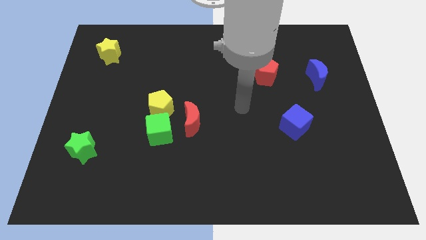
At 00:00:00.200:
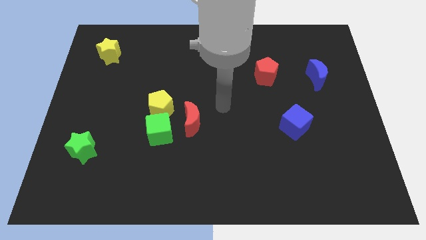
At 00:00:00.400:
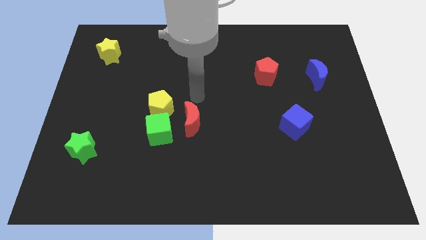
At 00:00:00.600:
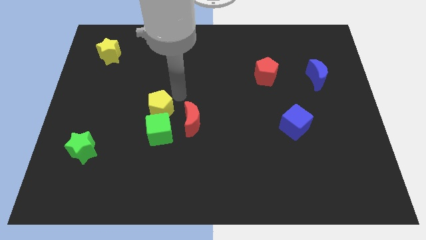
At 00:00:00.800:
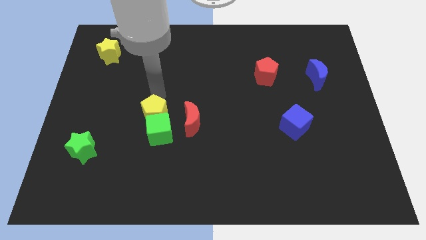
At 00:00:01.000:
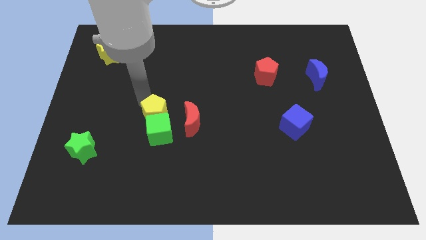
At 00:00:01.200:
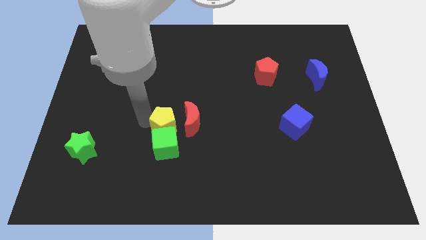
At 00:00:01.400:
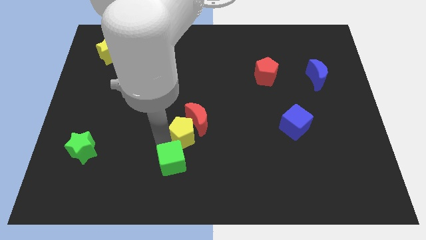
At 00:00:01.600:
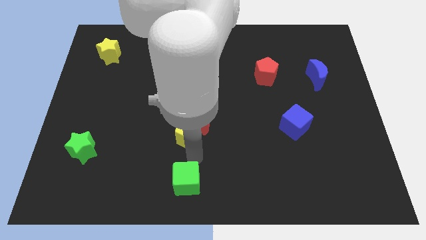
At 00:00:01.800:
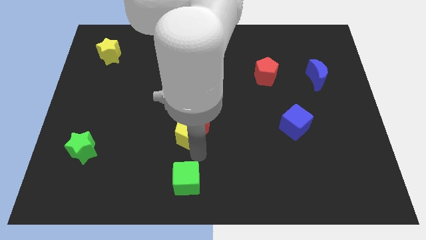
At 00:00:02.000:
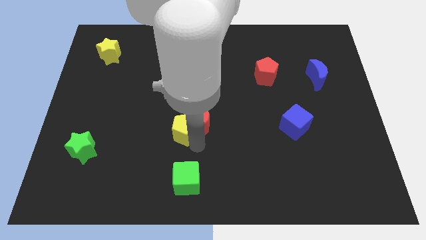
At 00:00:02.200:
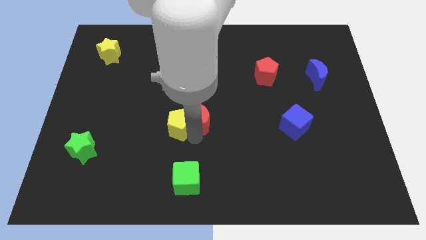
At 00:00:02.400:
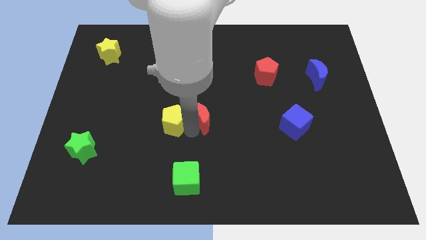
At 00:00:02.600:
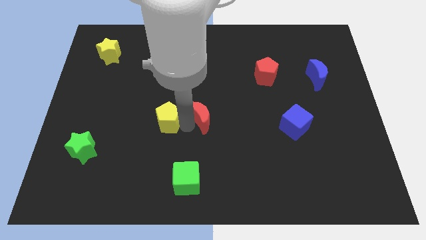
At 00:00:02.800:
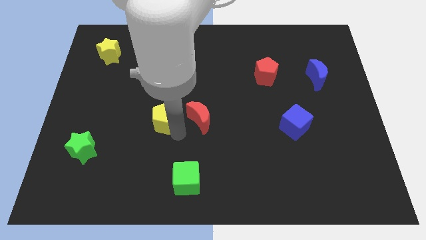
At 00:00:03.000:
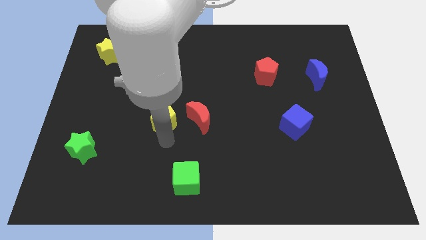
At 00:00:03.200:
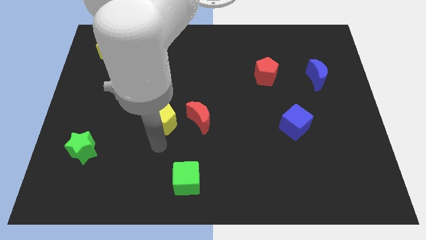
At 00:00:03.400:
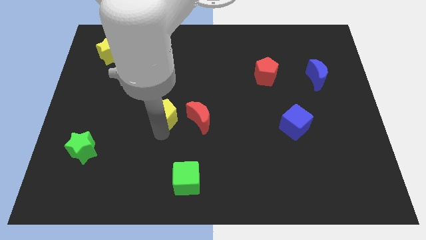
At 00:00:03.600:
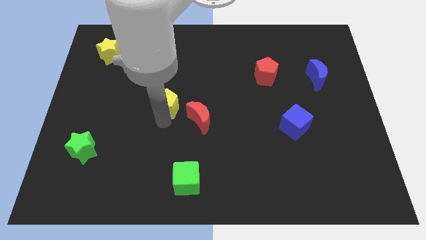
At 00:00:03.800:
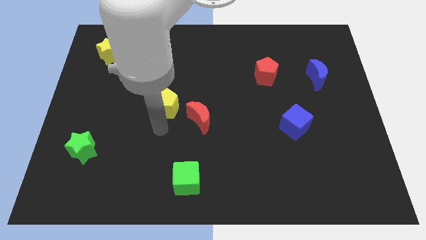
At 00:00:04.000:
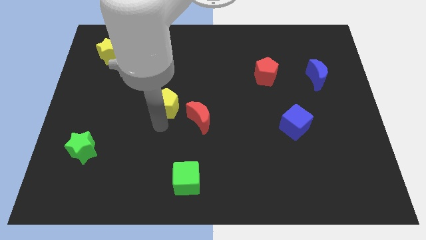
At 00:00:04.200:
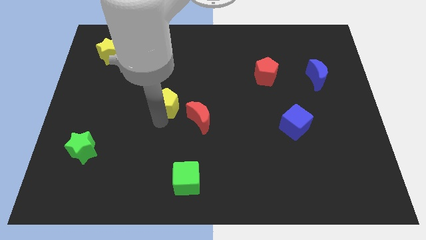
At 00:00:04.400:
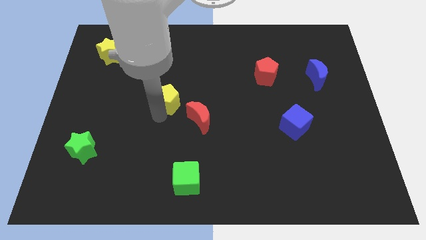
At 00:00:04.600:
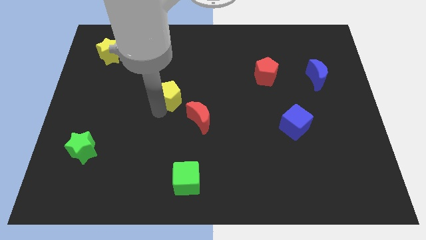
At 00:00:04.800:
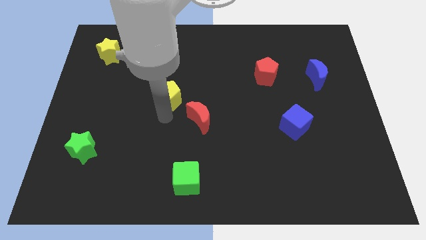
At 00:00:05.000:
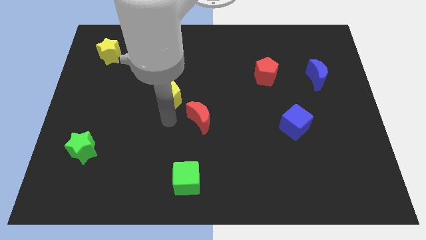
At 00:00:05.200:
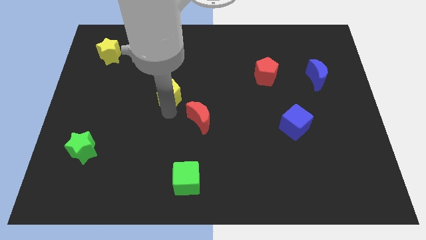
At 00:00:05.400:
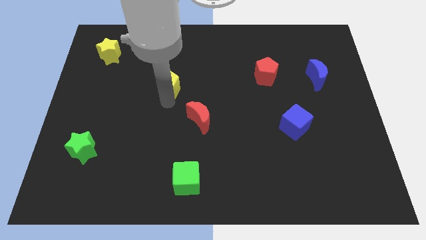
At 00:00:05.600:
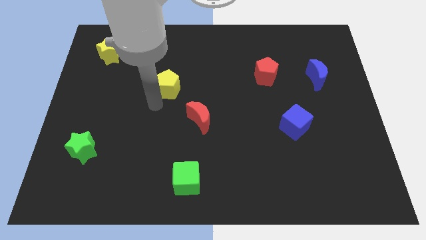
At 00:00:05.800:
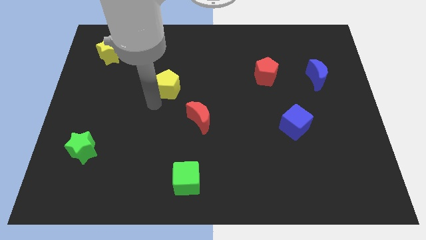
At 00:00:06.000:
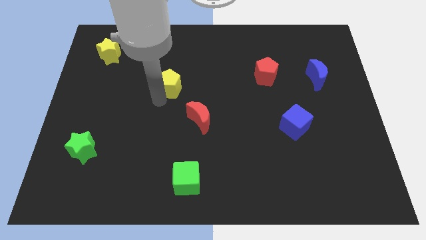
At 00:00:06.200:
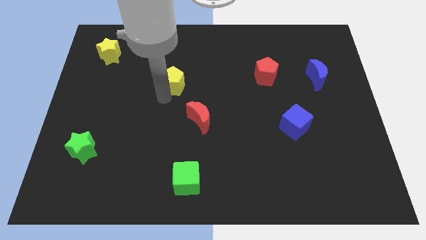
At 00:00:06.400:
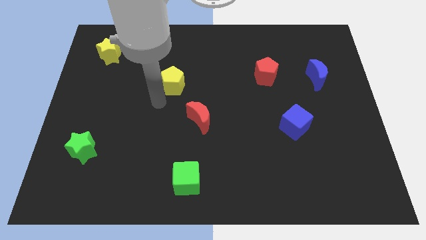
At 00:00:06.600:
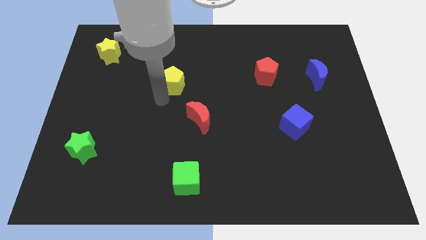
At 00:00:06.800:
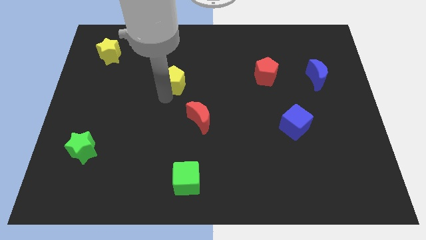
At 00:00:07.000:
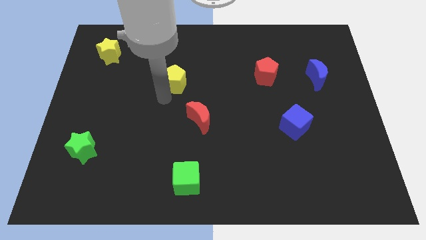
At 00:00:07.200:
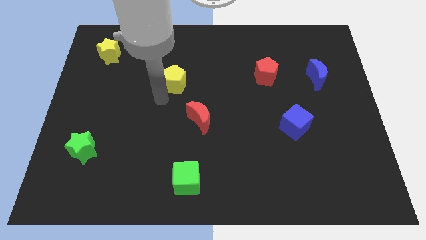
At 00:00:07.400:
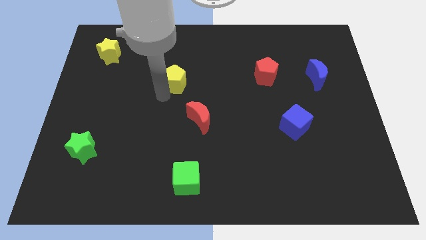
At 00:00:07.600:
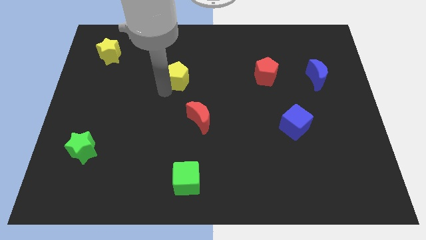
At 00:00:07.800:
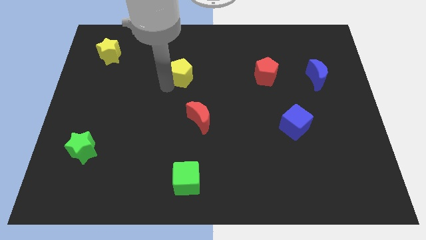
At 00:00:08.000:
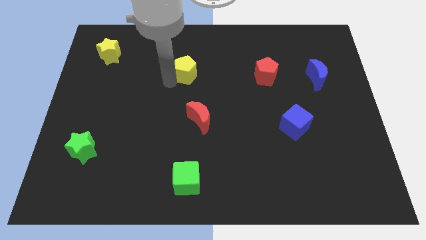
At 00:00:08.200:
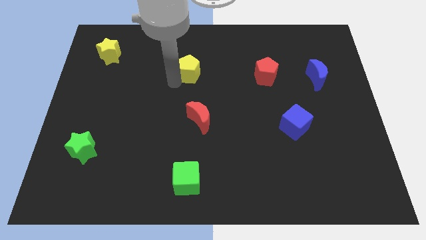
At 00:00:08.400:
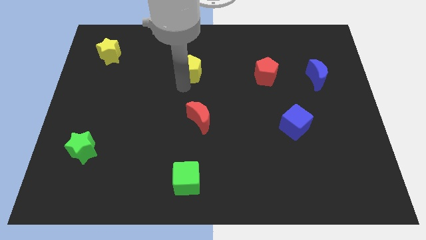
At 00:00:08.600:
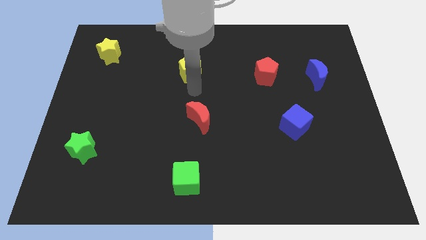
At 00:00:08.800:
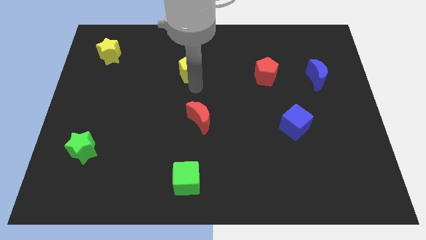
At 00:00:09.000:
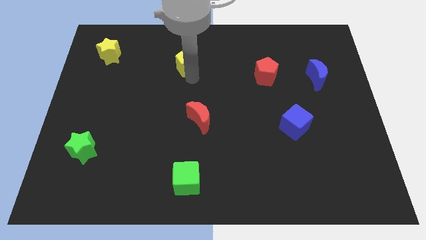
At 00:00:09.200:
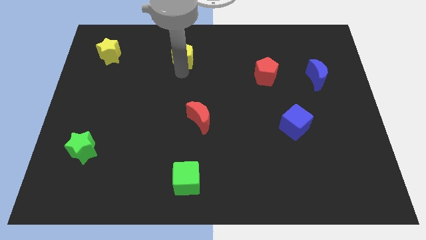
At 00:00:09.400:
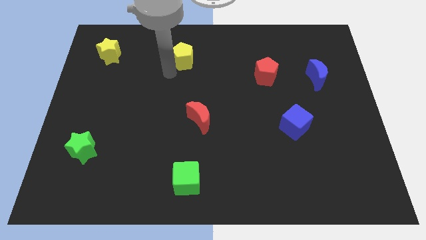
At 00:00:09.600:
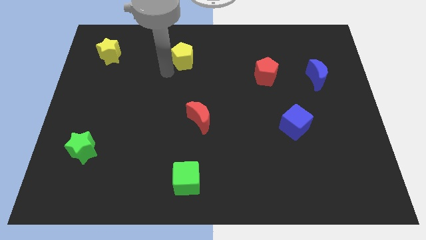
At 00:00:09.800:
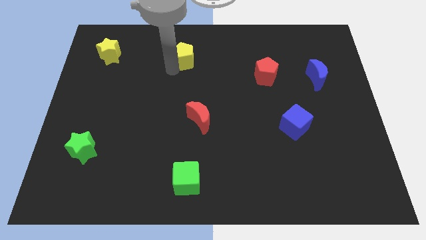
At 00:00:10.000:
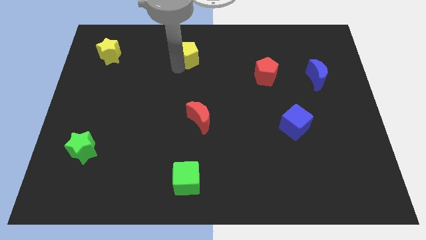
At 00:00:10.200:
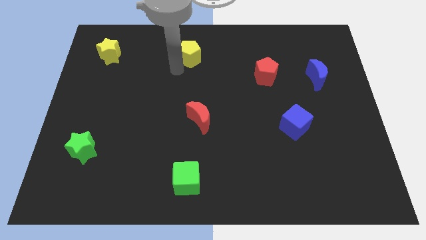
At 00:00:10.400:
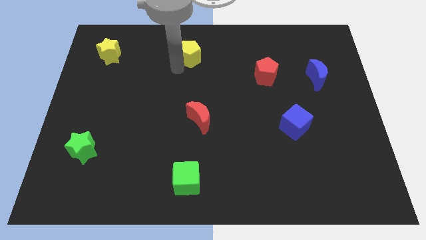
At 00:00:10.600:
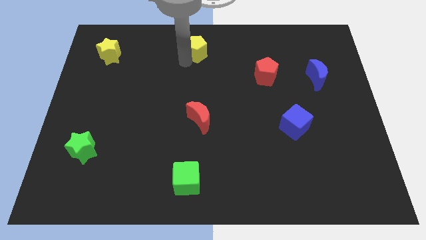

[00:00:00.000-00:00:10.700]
put the yellow pentagon to the top side

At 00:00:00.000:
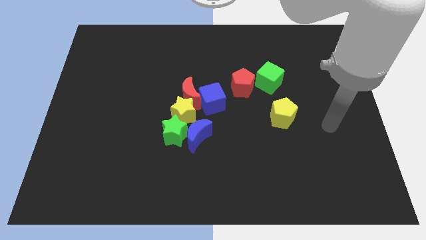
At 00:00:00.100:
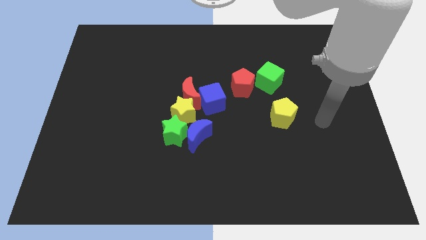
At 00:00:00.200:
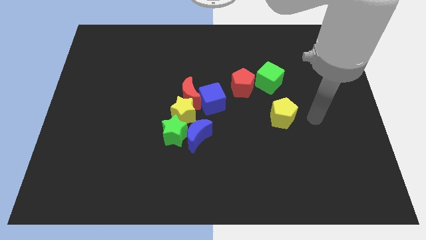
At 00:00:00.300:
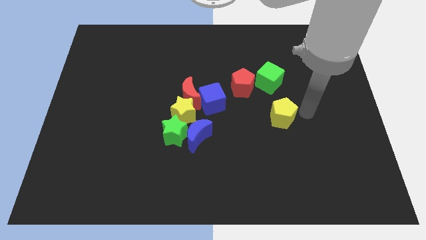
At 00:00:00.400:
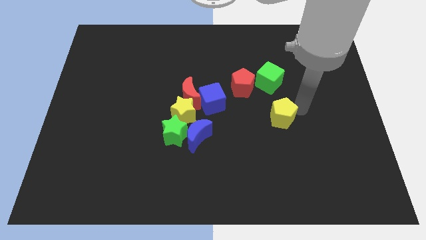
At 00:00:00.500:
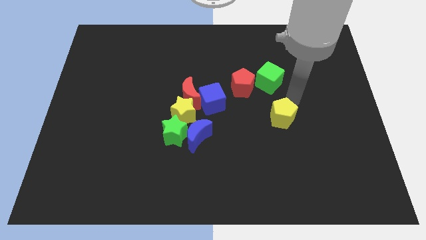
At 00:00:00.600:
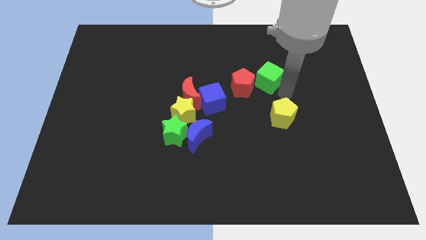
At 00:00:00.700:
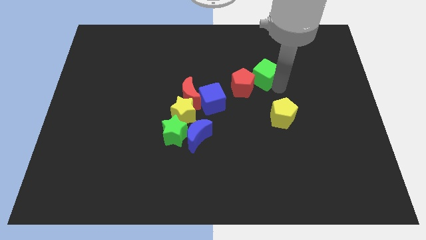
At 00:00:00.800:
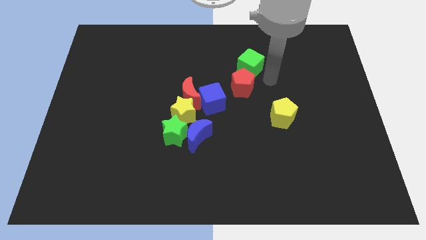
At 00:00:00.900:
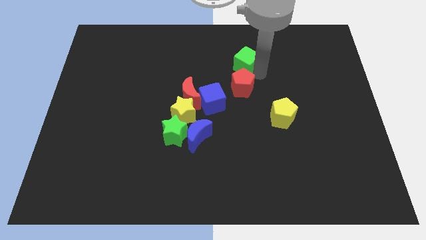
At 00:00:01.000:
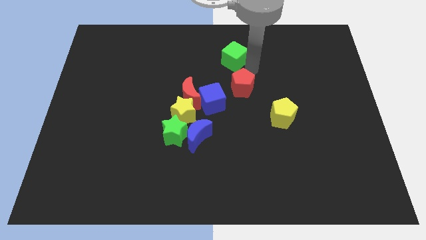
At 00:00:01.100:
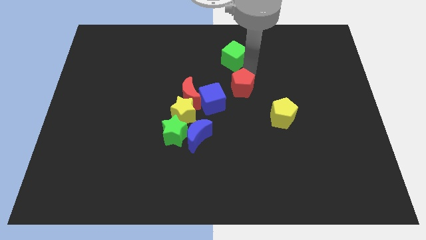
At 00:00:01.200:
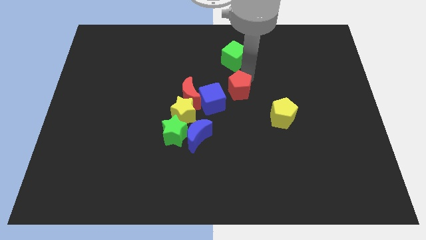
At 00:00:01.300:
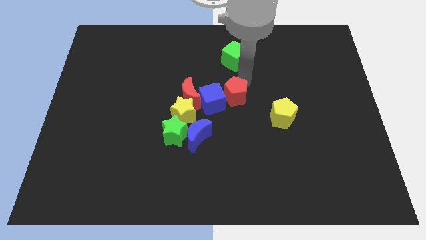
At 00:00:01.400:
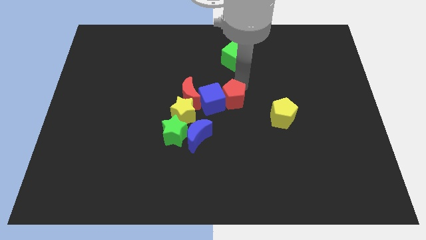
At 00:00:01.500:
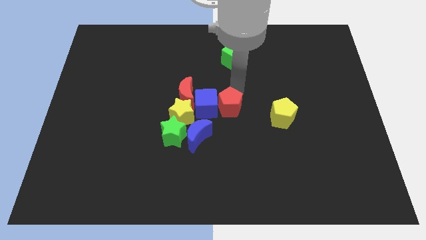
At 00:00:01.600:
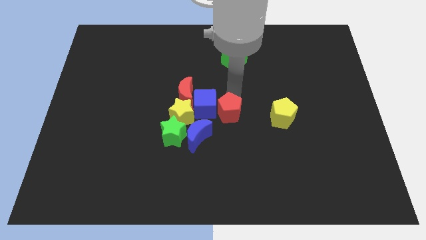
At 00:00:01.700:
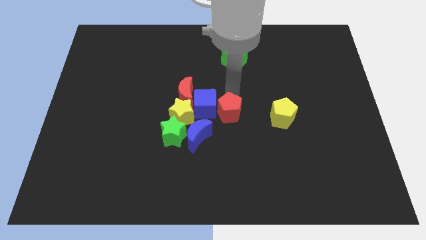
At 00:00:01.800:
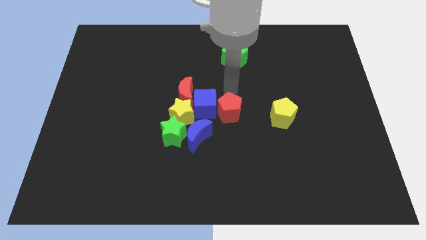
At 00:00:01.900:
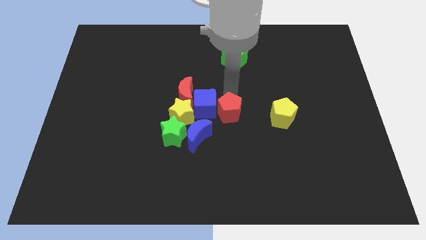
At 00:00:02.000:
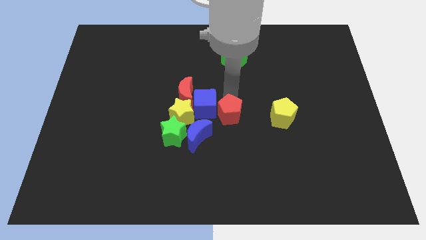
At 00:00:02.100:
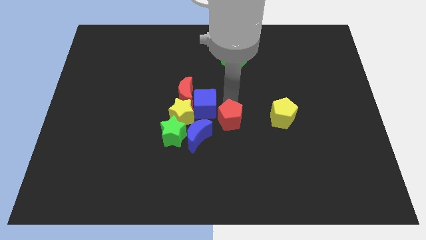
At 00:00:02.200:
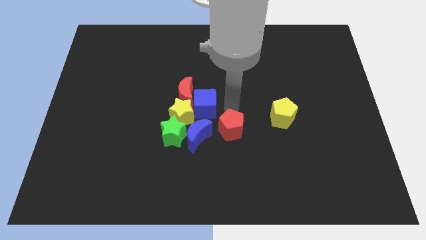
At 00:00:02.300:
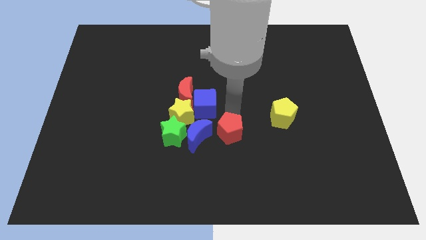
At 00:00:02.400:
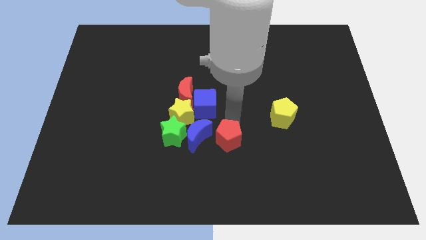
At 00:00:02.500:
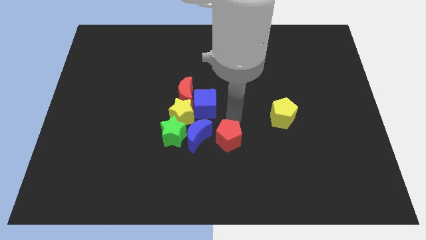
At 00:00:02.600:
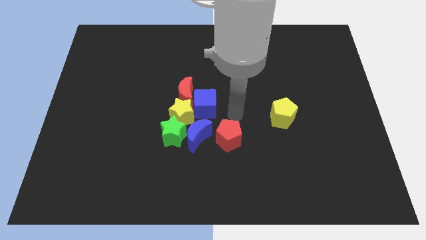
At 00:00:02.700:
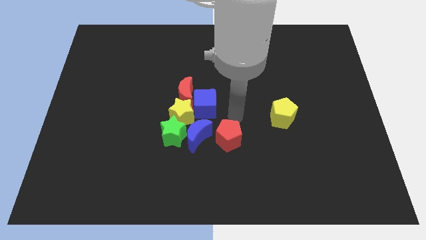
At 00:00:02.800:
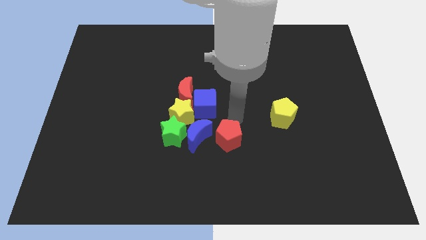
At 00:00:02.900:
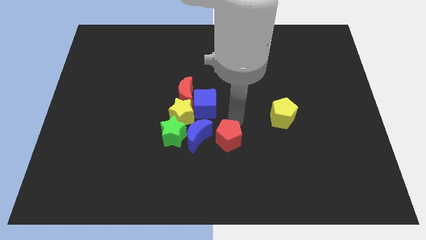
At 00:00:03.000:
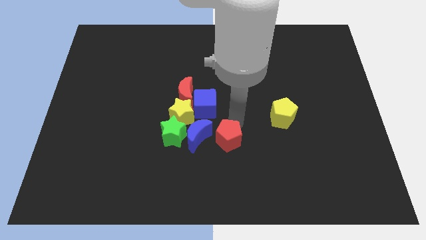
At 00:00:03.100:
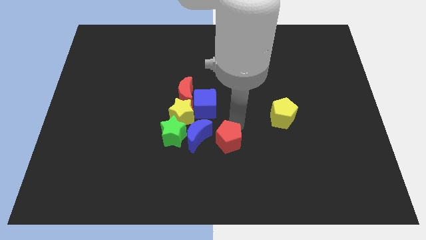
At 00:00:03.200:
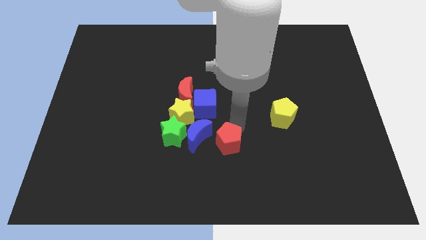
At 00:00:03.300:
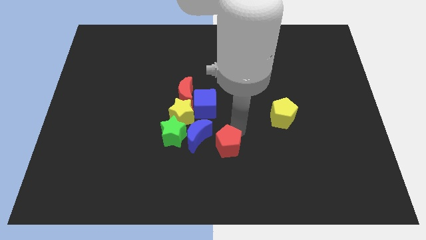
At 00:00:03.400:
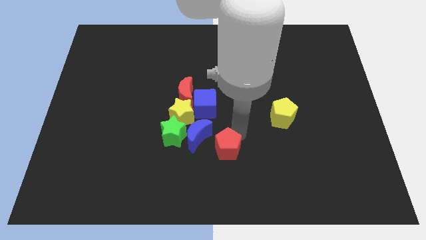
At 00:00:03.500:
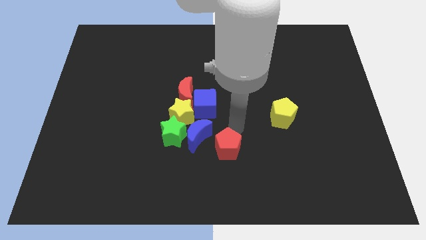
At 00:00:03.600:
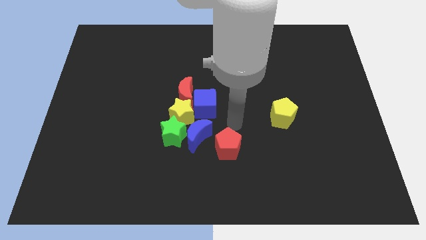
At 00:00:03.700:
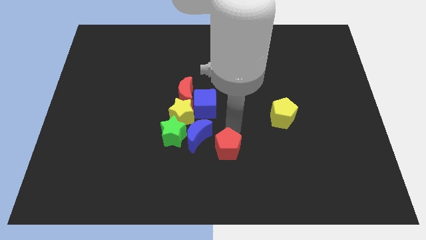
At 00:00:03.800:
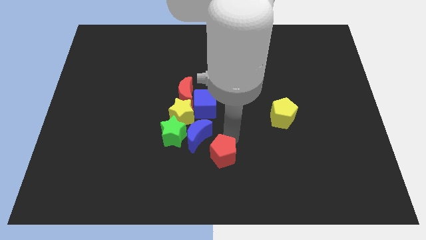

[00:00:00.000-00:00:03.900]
move the red pentagon to the bottom side
